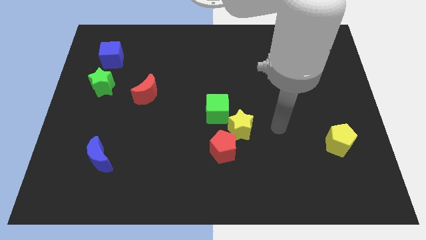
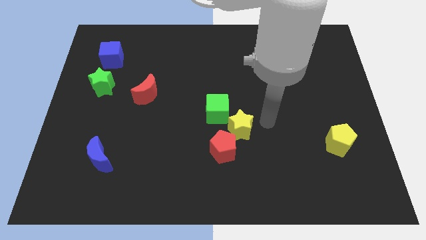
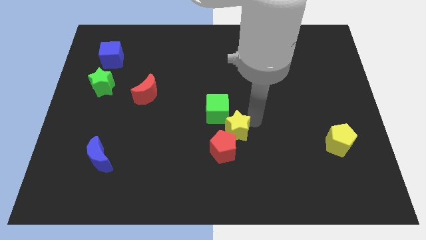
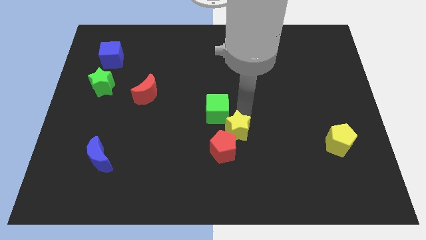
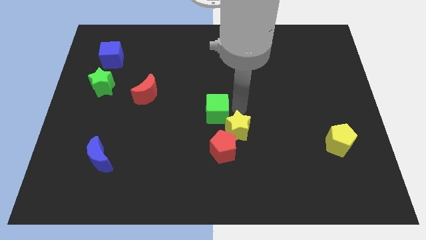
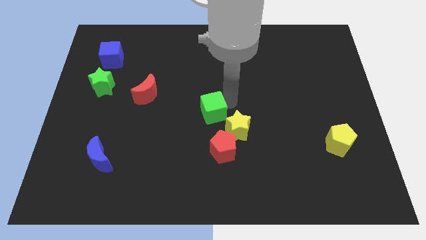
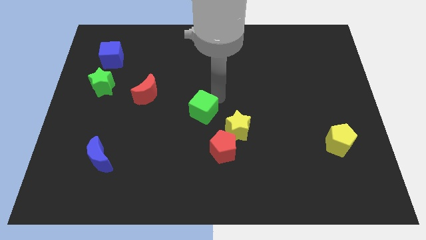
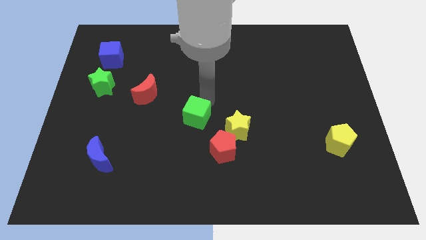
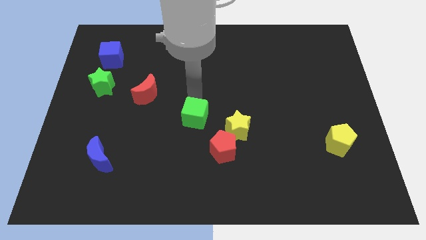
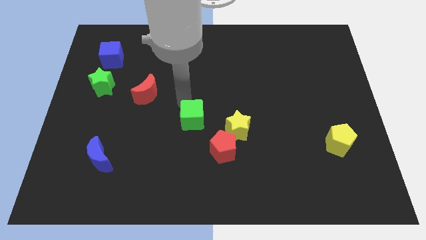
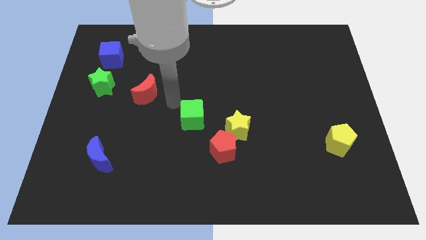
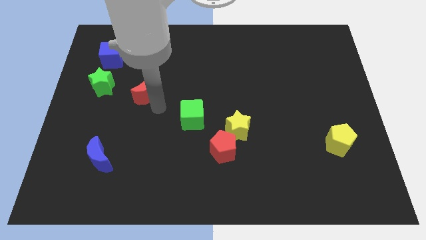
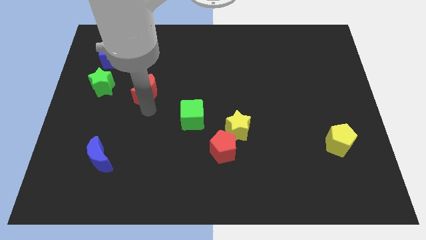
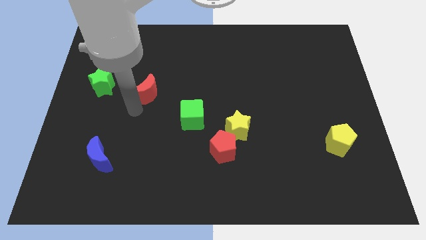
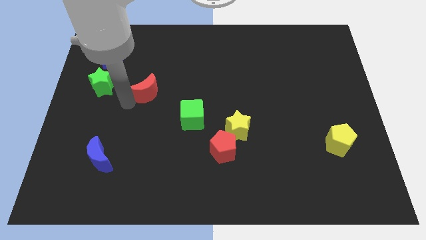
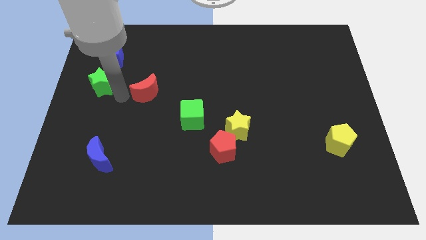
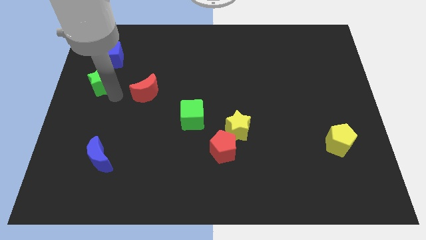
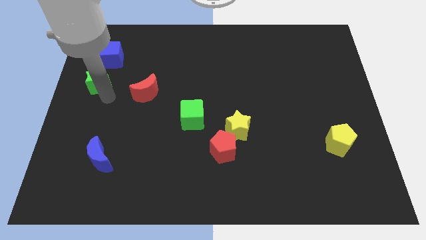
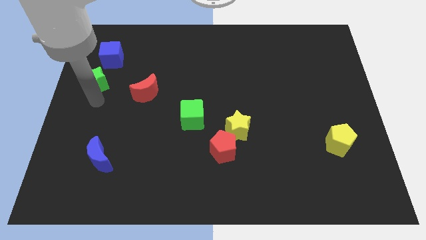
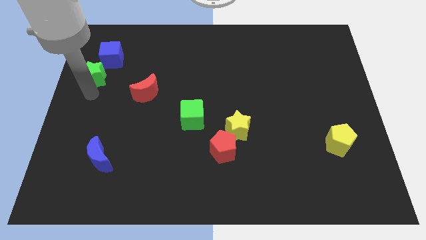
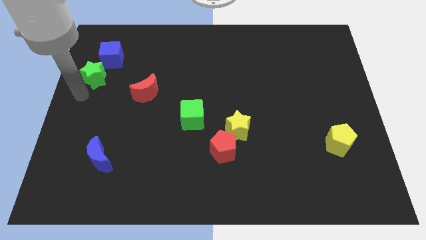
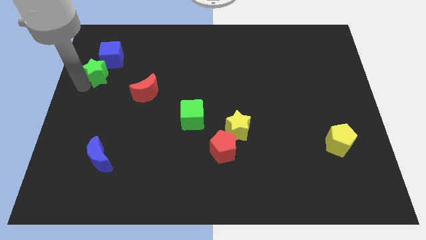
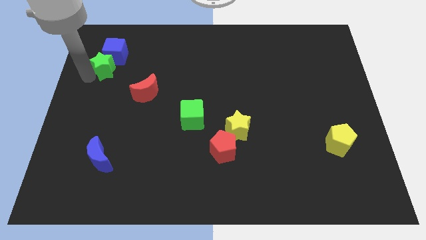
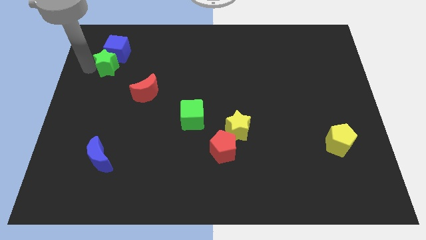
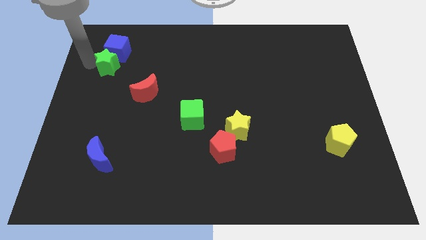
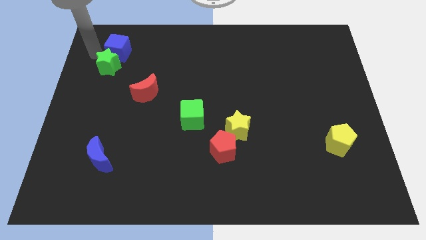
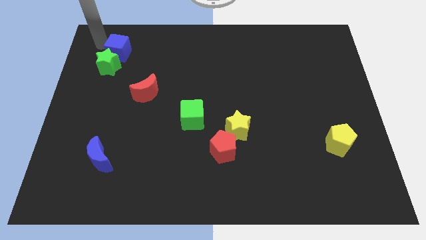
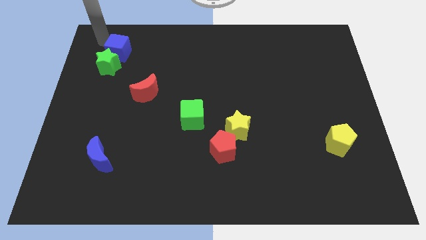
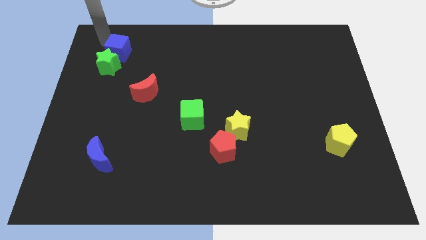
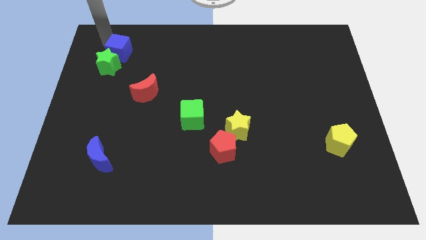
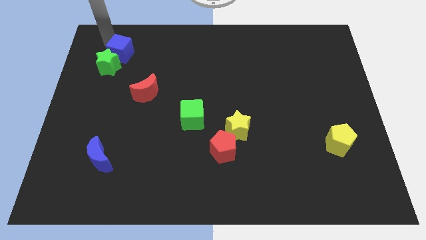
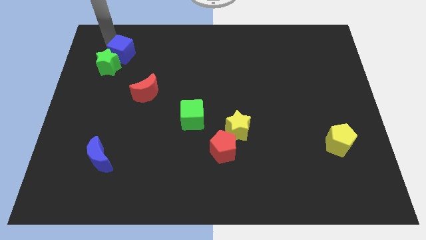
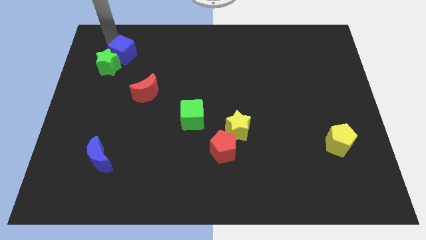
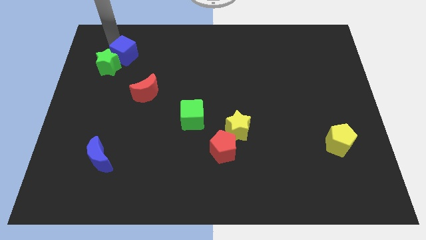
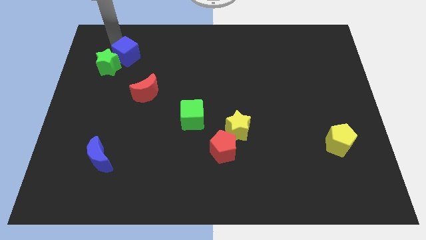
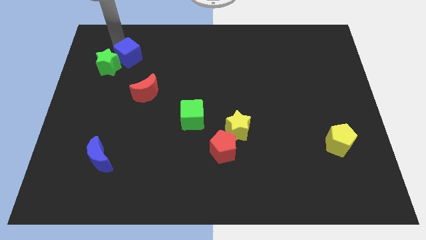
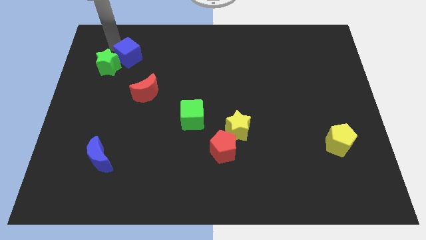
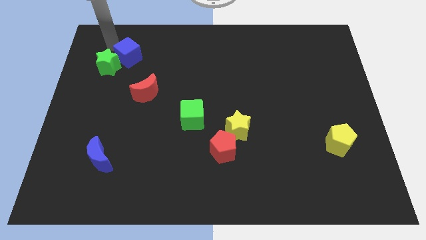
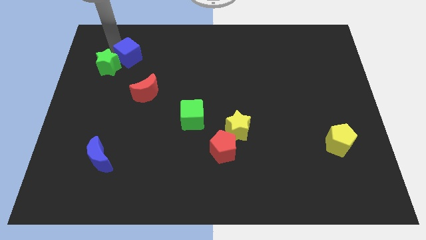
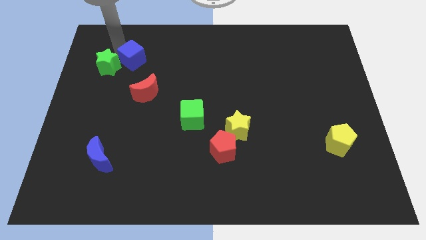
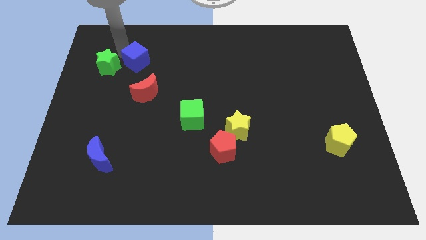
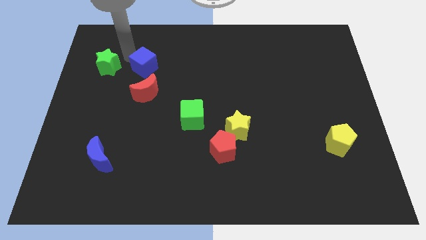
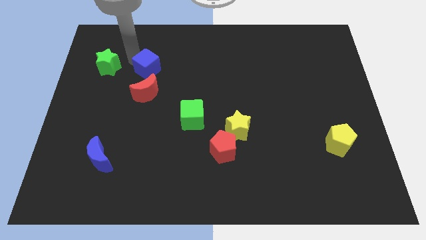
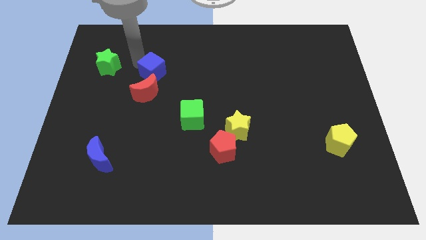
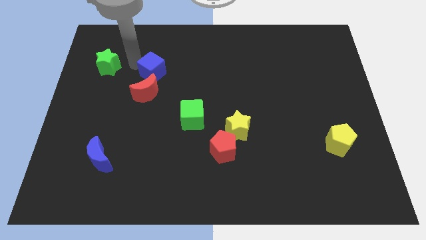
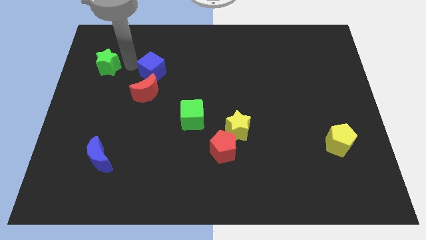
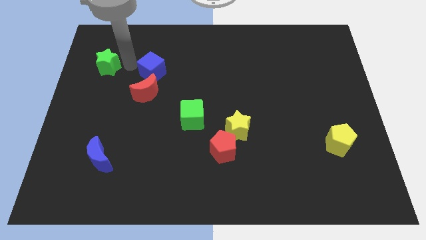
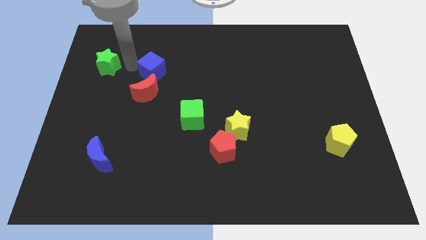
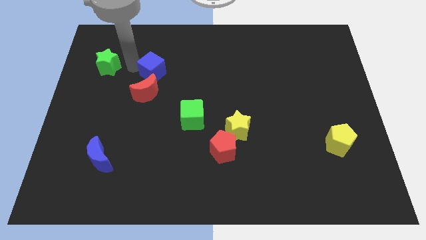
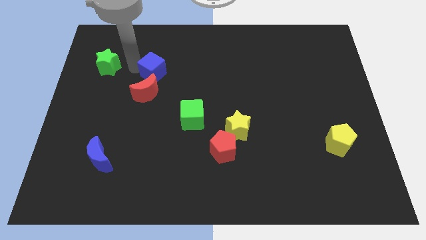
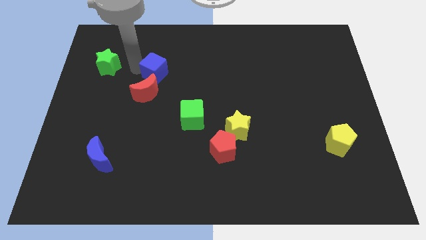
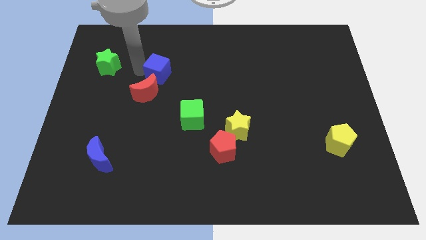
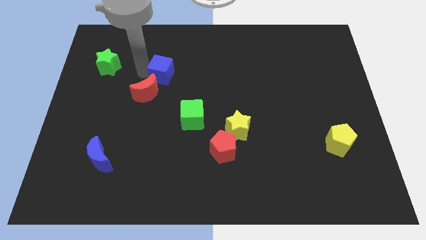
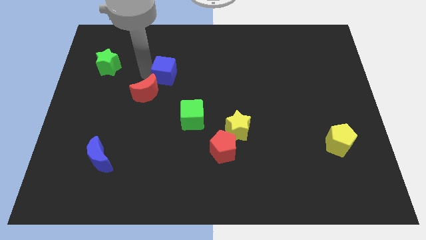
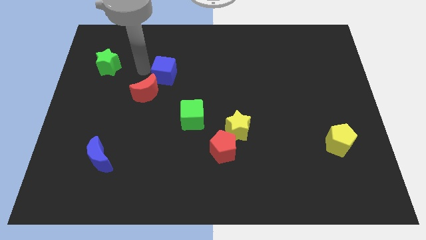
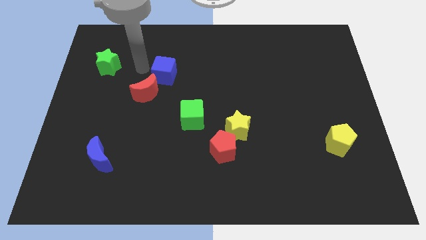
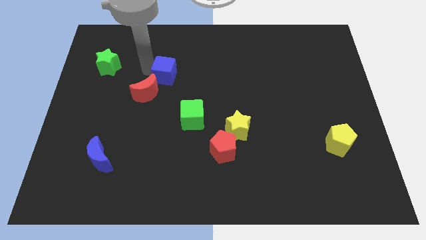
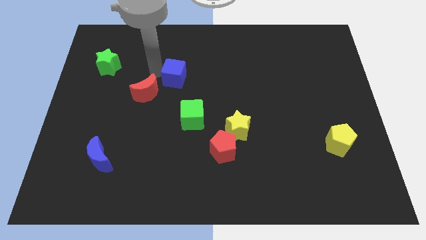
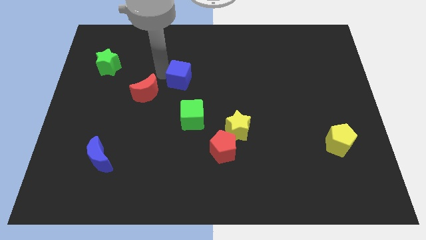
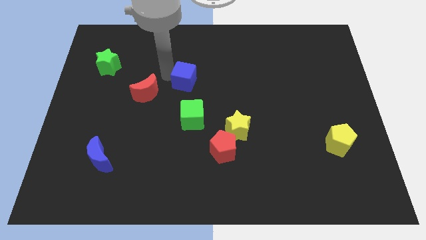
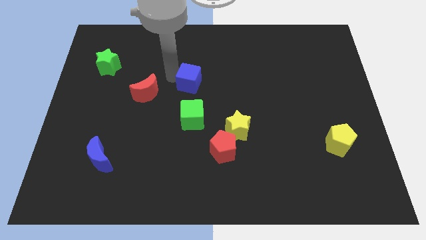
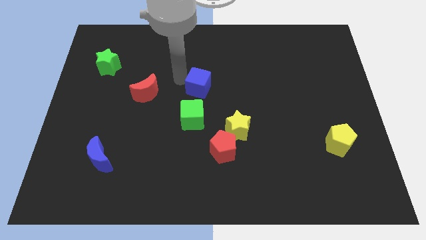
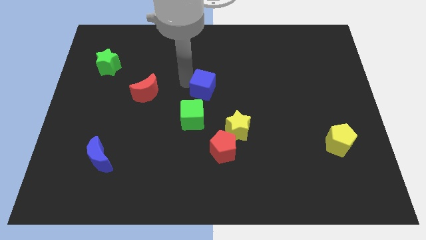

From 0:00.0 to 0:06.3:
push the blue cube to the top right side of the green cube

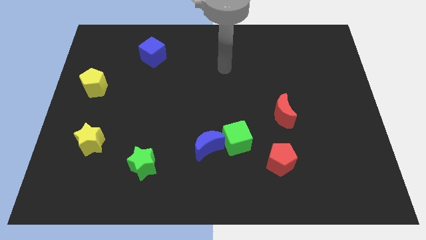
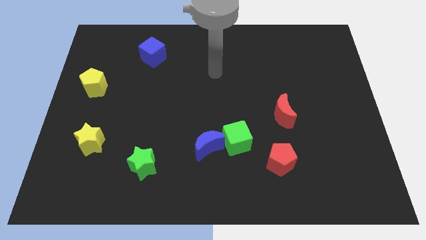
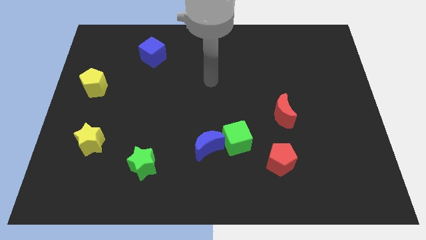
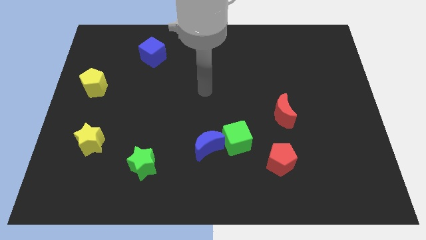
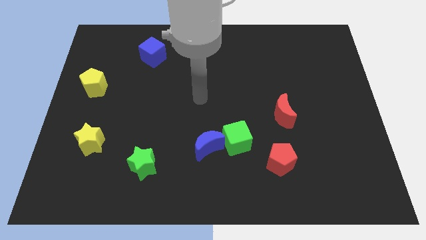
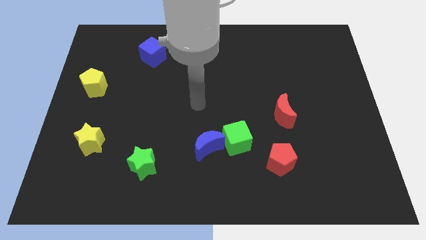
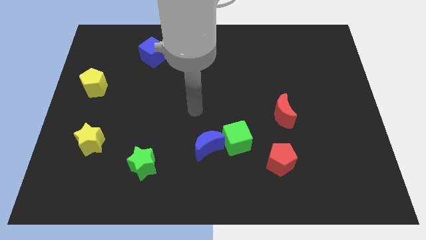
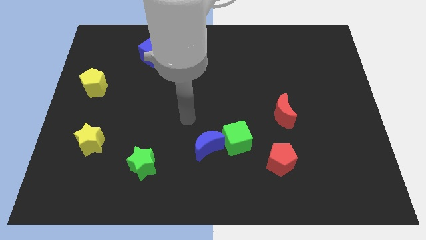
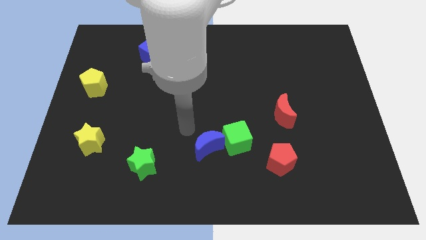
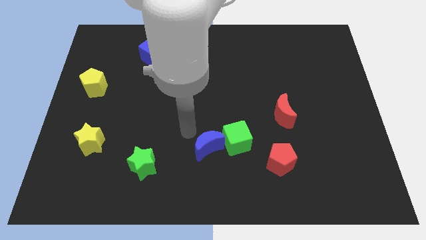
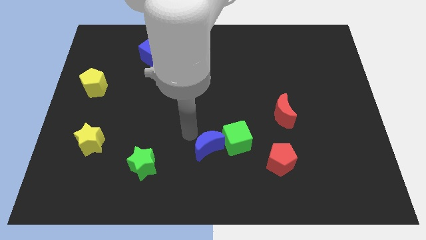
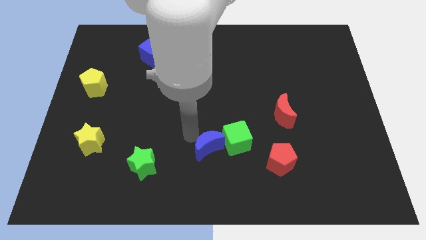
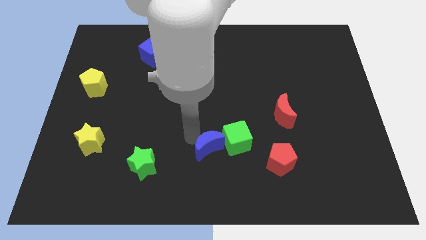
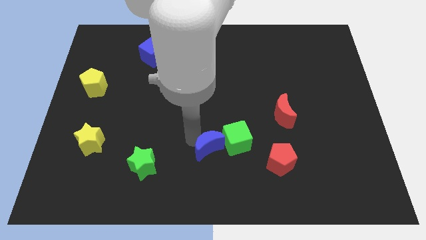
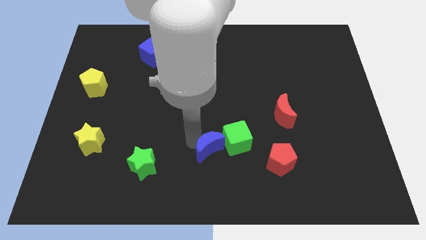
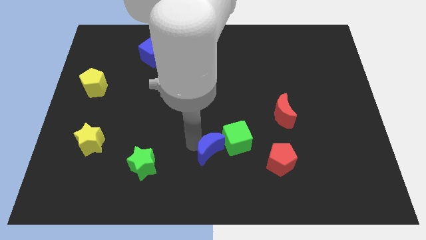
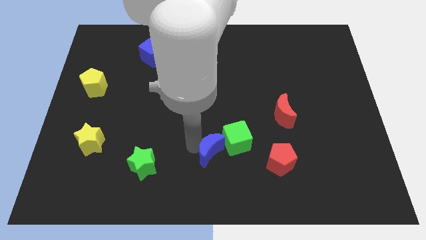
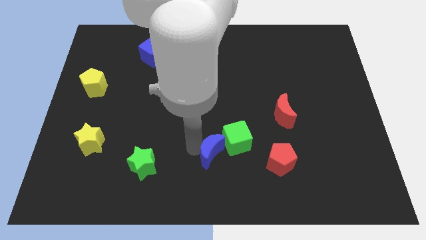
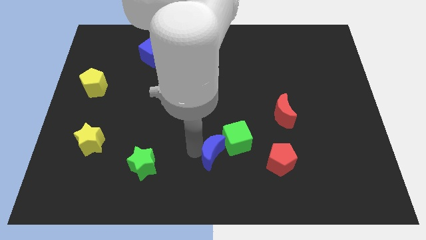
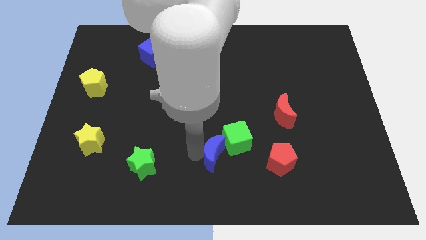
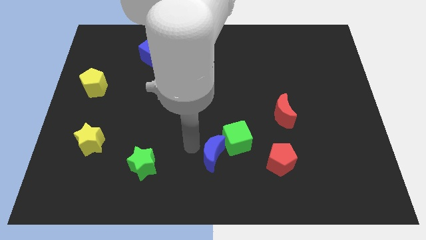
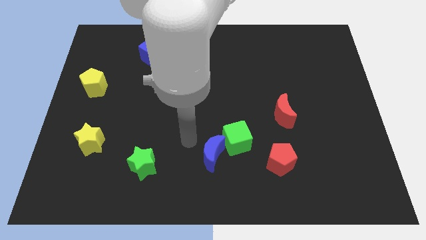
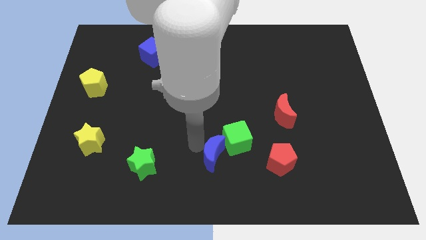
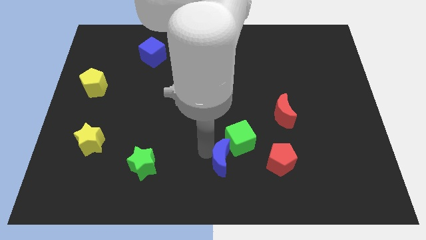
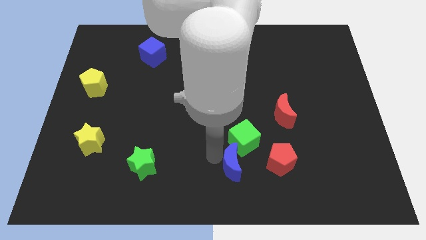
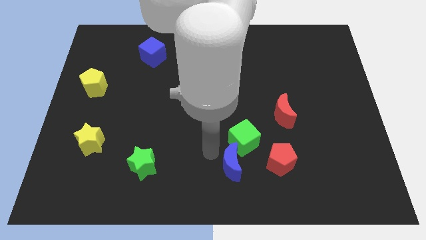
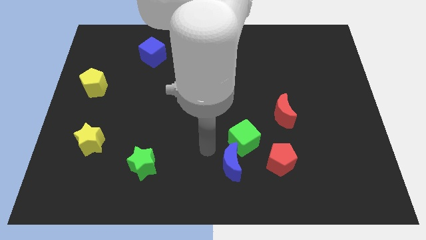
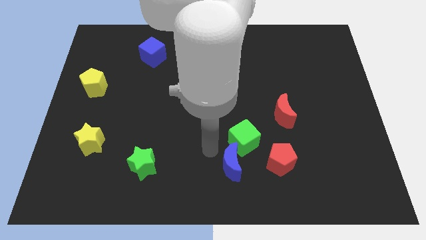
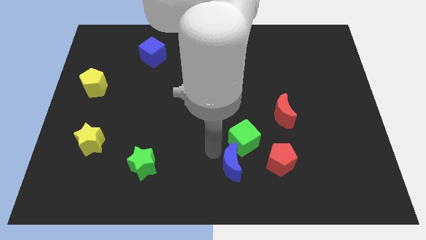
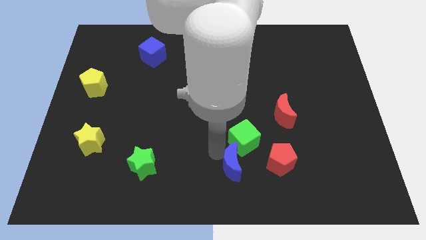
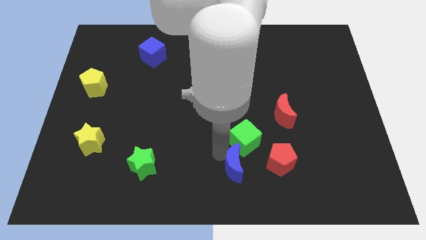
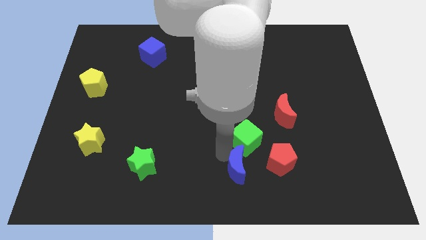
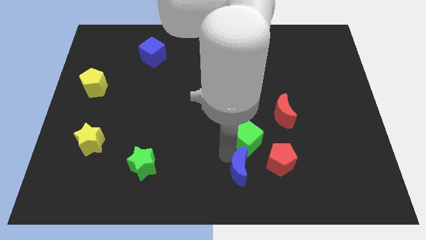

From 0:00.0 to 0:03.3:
move the blue moon to the bottom left of the red pentagon
